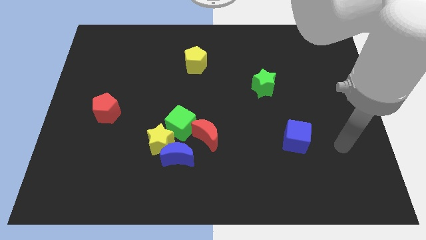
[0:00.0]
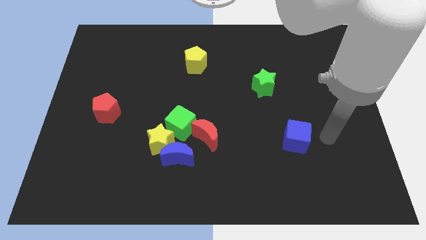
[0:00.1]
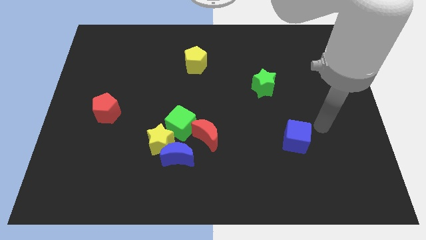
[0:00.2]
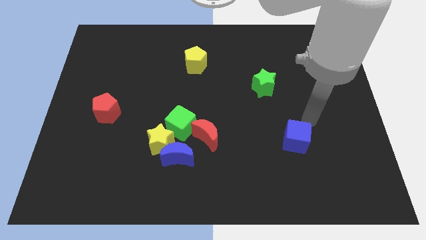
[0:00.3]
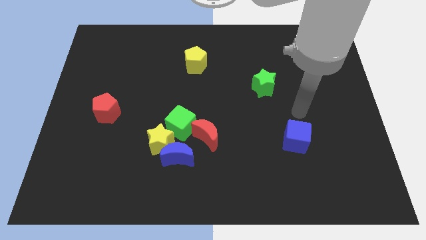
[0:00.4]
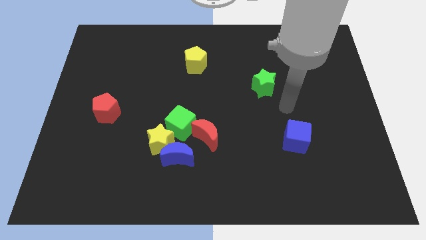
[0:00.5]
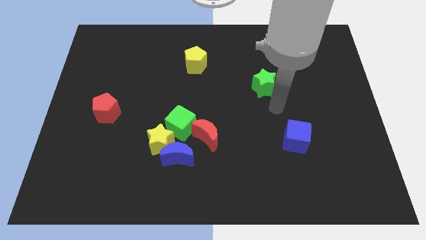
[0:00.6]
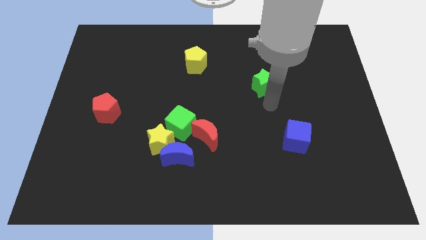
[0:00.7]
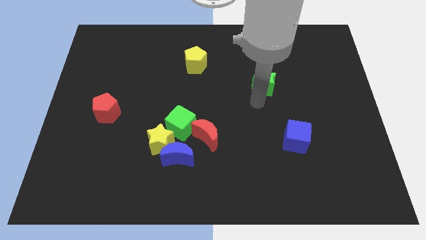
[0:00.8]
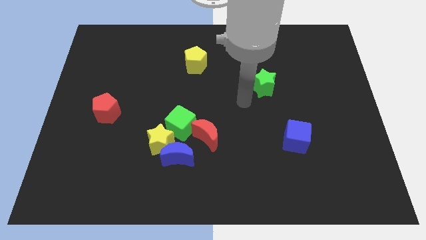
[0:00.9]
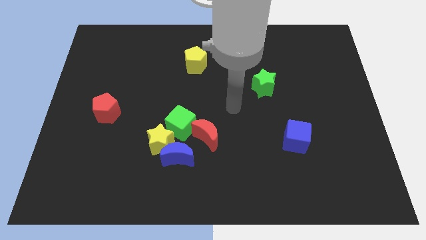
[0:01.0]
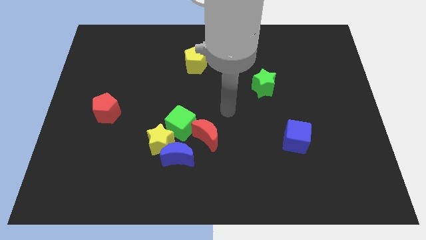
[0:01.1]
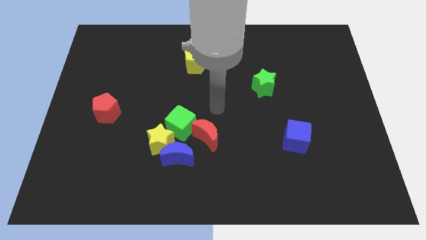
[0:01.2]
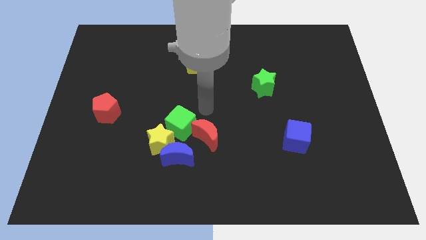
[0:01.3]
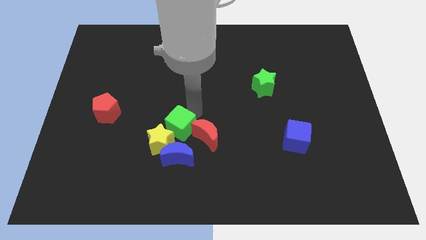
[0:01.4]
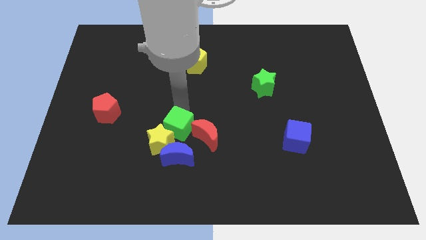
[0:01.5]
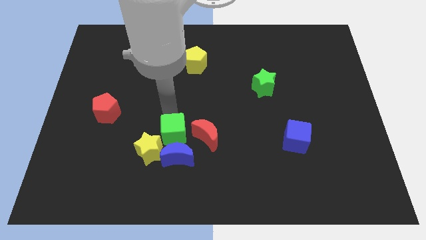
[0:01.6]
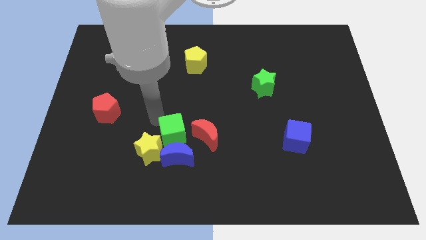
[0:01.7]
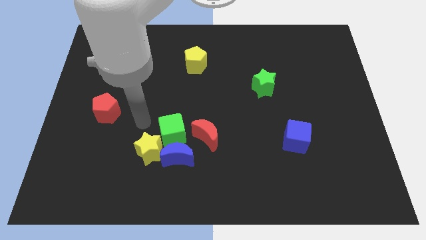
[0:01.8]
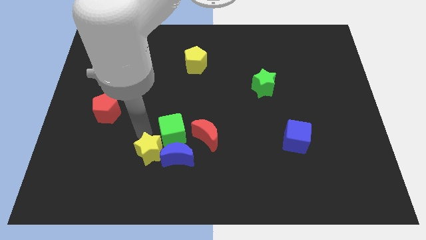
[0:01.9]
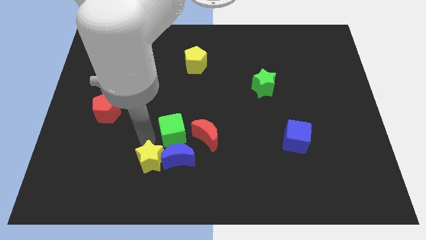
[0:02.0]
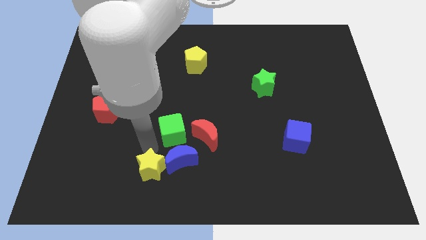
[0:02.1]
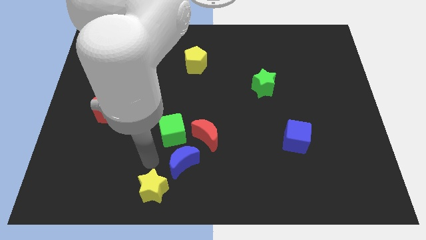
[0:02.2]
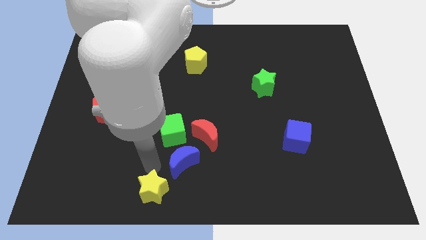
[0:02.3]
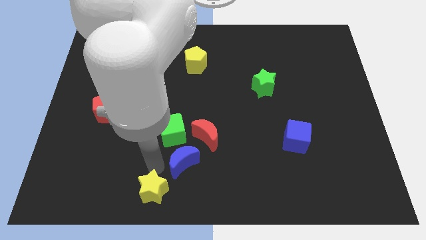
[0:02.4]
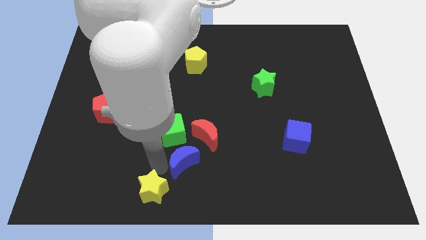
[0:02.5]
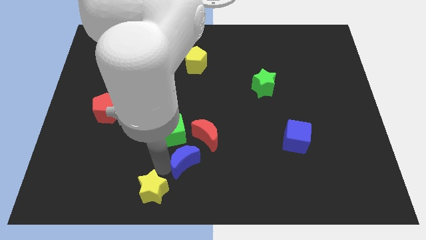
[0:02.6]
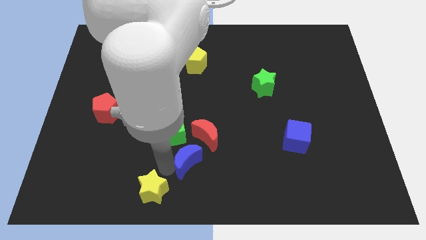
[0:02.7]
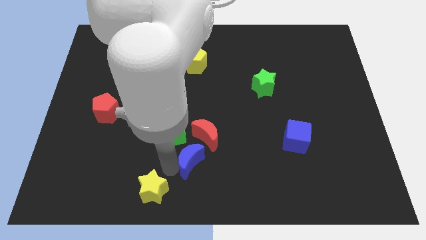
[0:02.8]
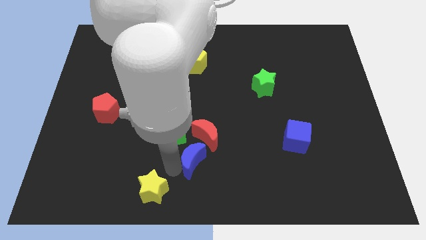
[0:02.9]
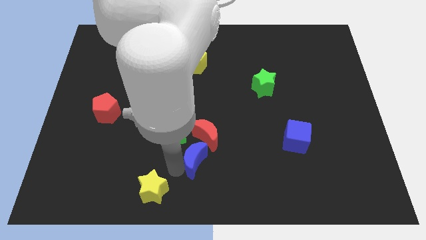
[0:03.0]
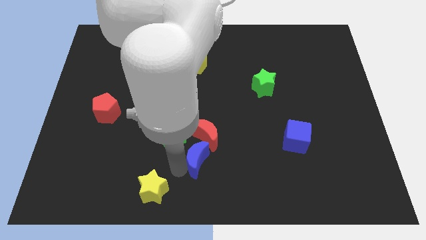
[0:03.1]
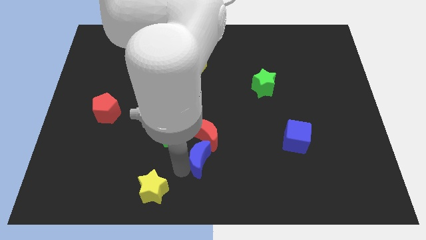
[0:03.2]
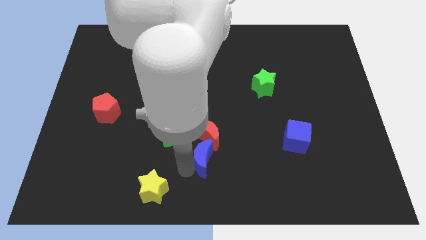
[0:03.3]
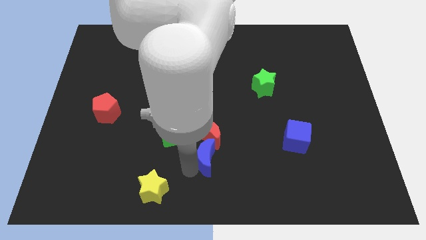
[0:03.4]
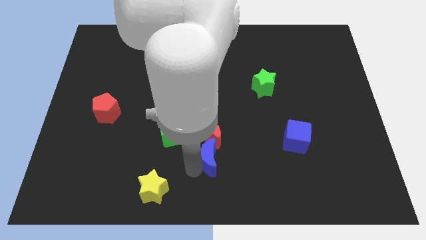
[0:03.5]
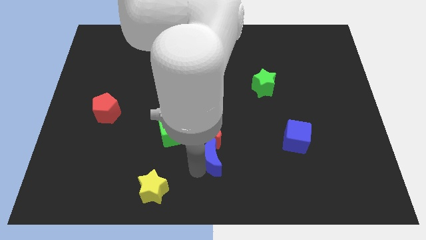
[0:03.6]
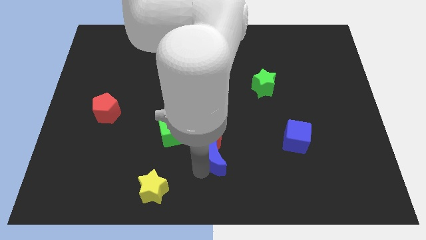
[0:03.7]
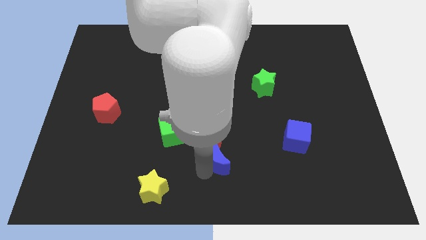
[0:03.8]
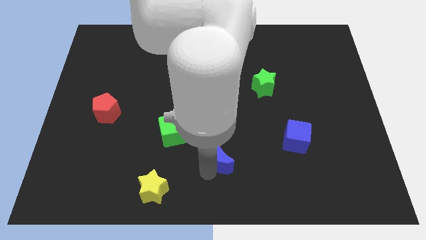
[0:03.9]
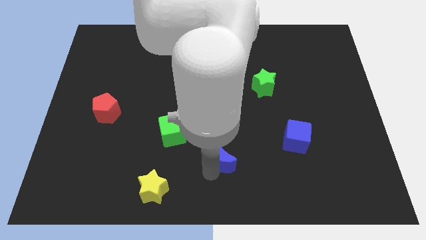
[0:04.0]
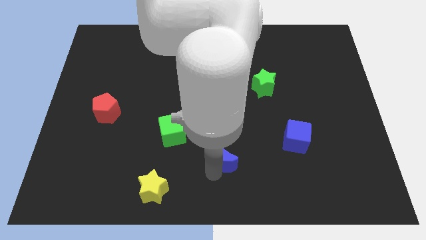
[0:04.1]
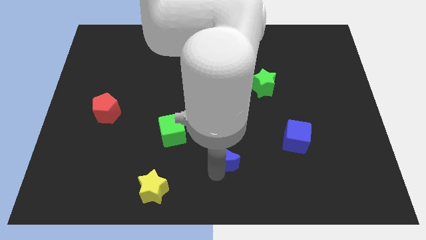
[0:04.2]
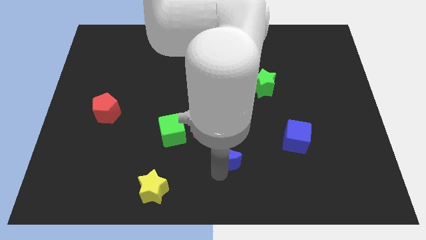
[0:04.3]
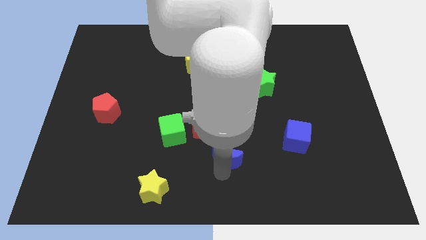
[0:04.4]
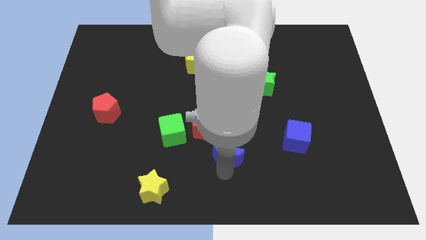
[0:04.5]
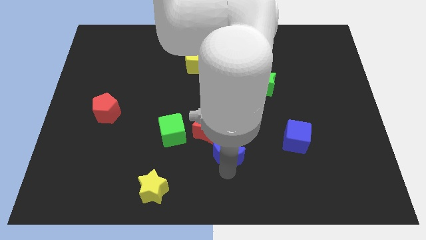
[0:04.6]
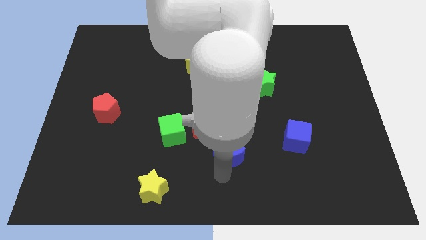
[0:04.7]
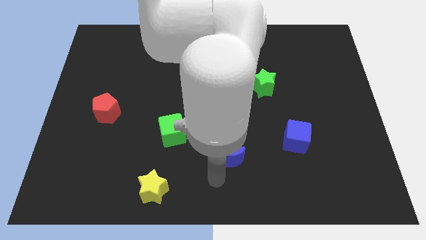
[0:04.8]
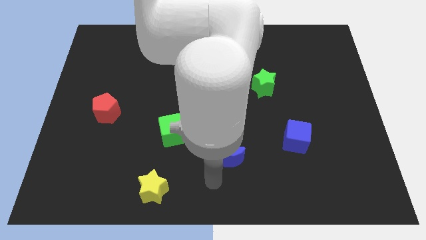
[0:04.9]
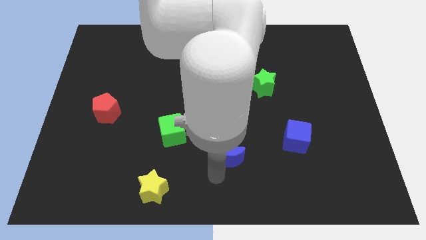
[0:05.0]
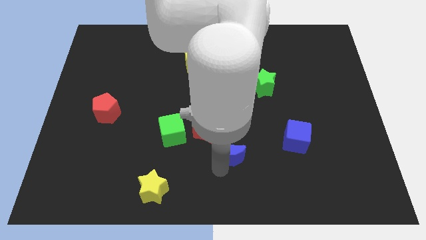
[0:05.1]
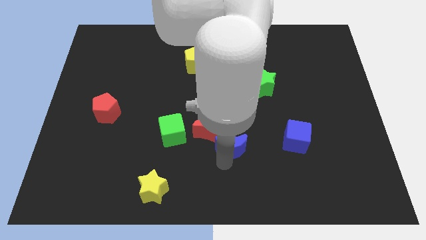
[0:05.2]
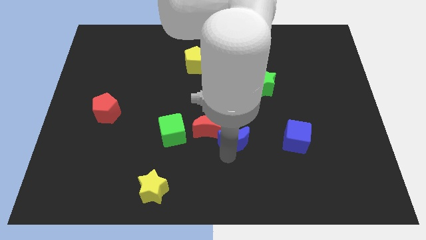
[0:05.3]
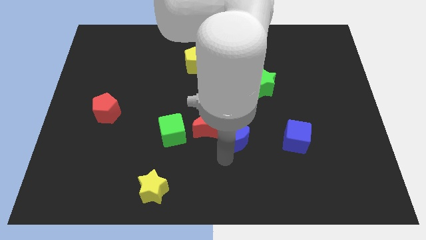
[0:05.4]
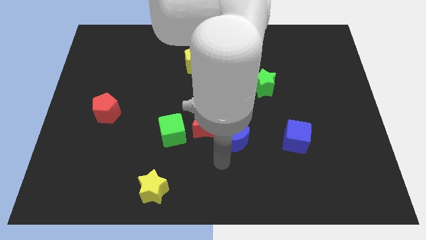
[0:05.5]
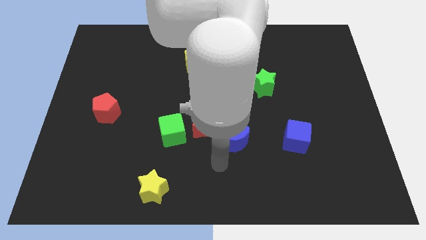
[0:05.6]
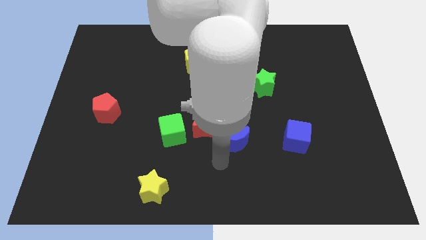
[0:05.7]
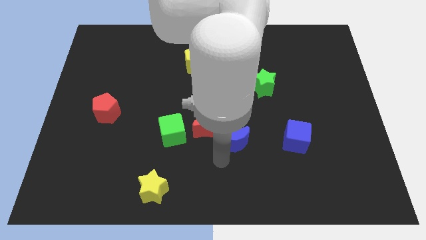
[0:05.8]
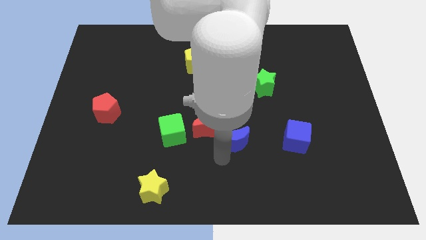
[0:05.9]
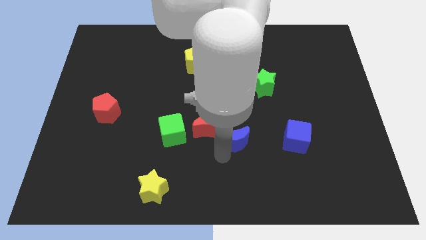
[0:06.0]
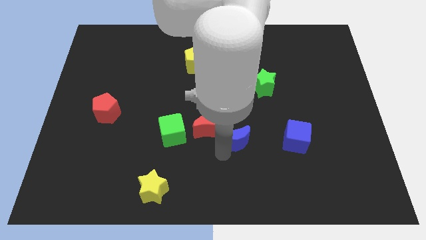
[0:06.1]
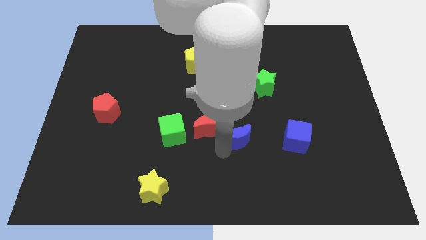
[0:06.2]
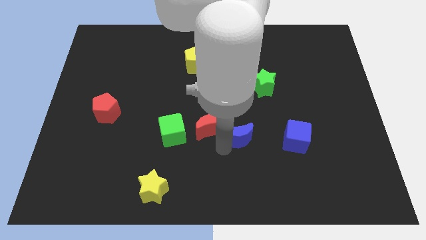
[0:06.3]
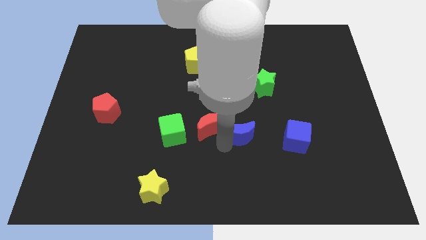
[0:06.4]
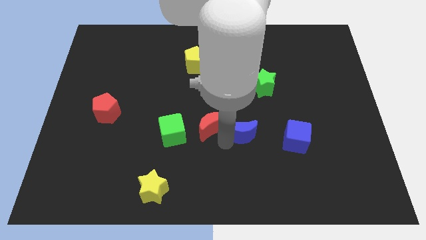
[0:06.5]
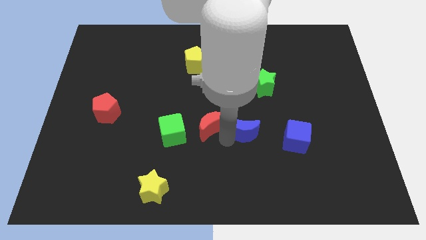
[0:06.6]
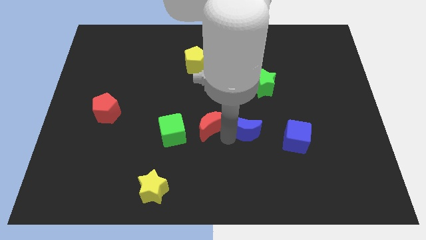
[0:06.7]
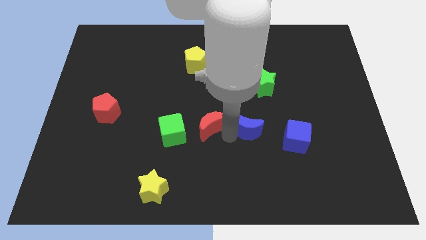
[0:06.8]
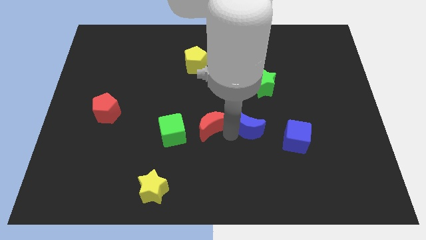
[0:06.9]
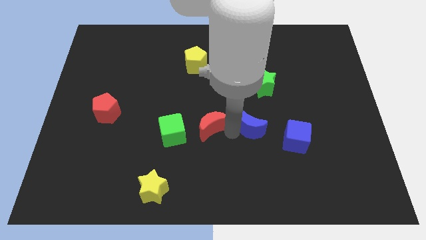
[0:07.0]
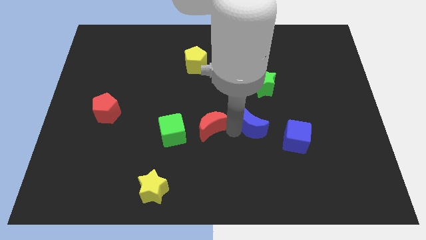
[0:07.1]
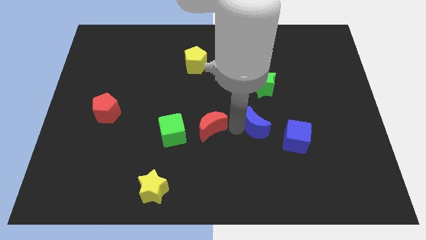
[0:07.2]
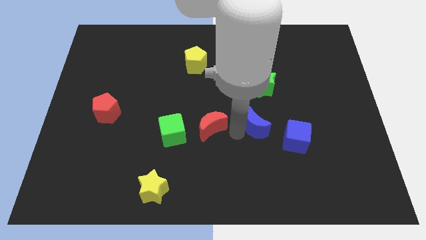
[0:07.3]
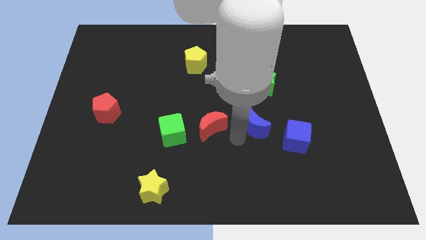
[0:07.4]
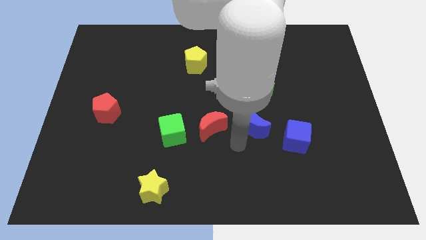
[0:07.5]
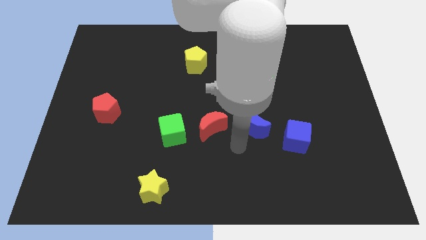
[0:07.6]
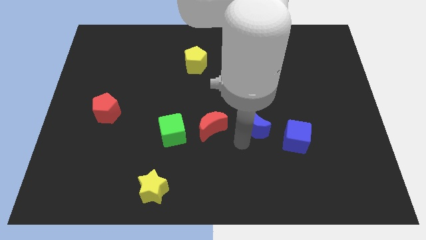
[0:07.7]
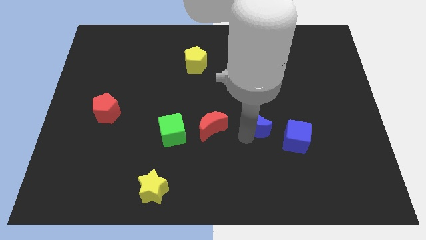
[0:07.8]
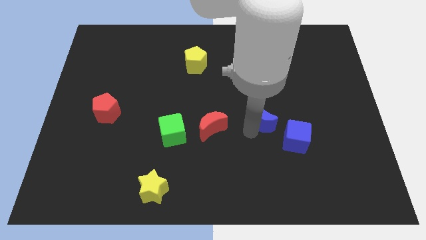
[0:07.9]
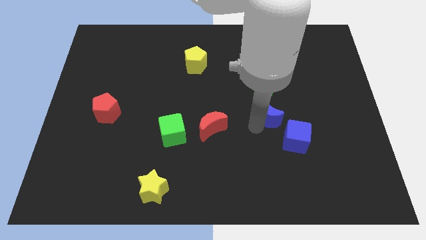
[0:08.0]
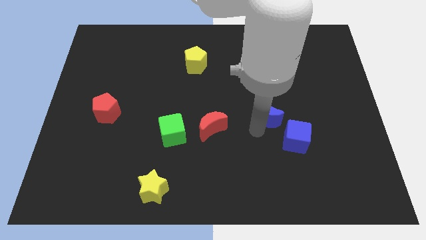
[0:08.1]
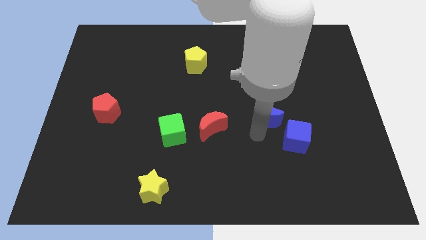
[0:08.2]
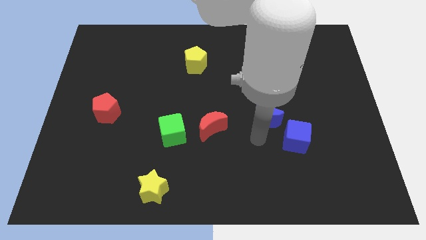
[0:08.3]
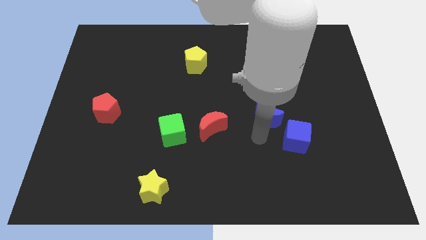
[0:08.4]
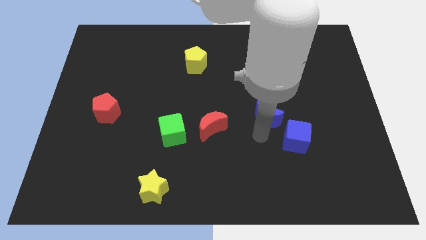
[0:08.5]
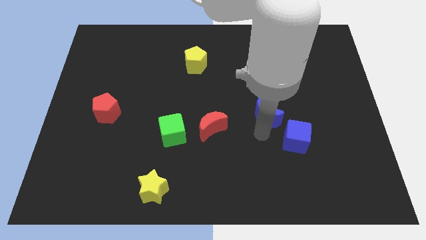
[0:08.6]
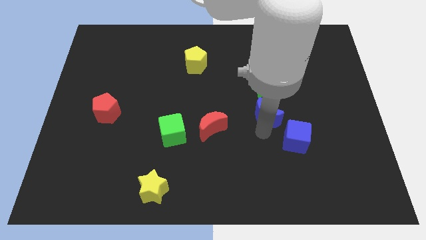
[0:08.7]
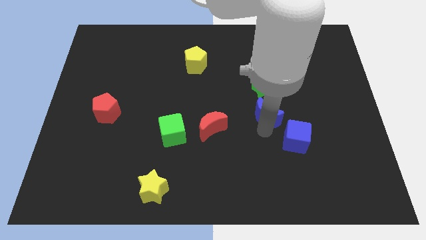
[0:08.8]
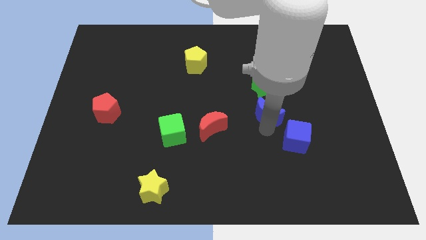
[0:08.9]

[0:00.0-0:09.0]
slide the blue moon up and to the right
